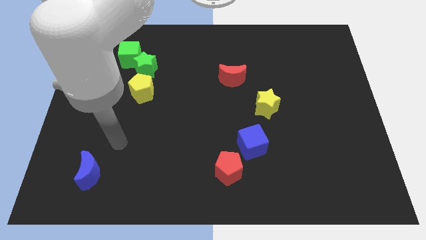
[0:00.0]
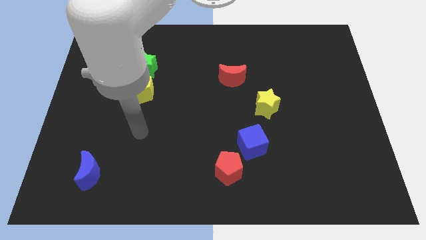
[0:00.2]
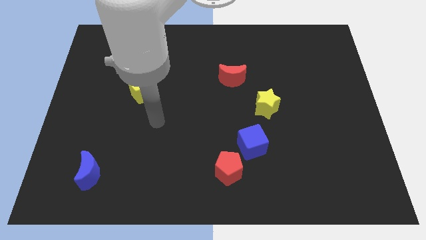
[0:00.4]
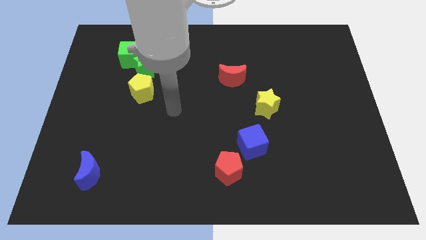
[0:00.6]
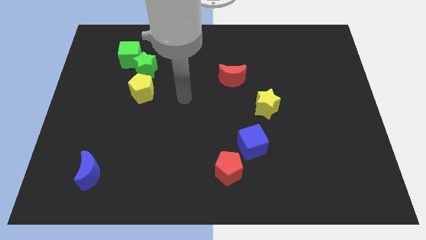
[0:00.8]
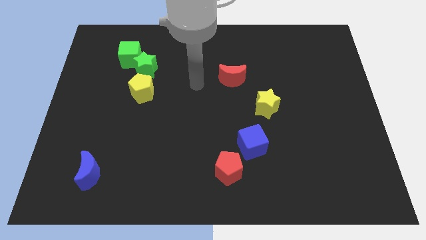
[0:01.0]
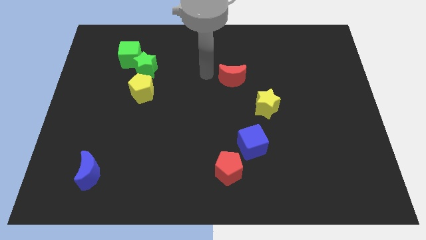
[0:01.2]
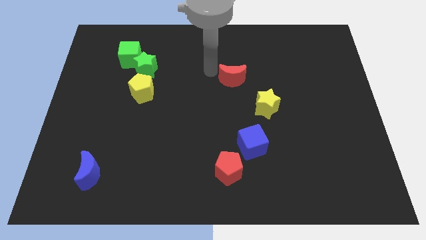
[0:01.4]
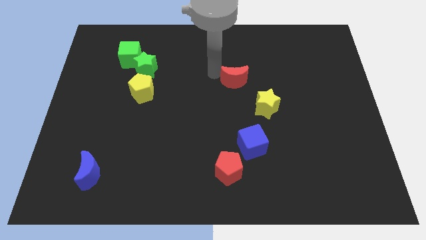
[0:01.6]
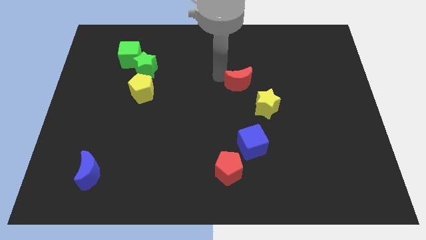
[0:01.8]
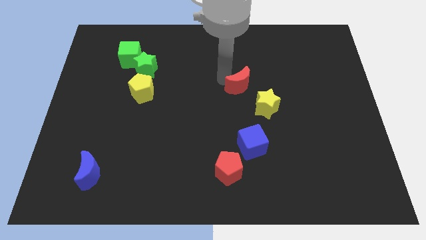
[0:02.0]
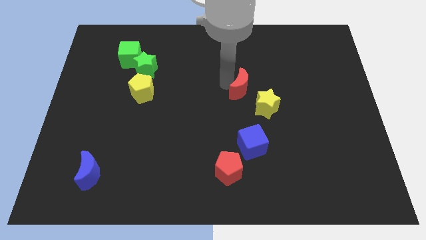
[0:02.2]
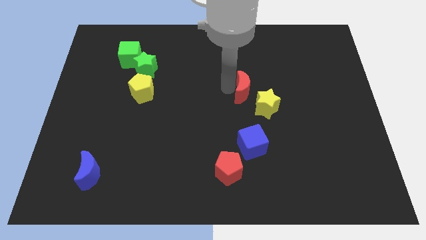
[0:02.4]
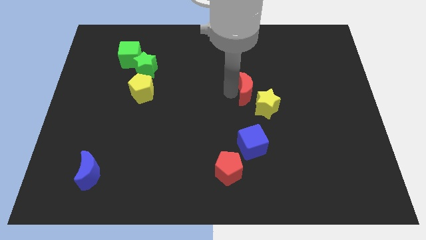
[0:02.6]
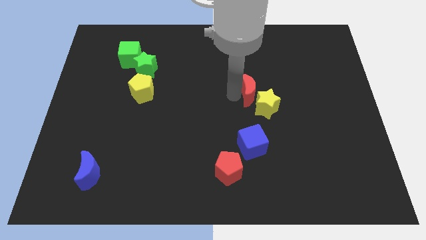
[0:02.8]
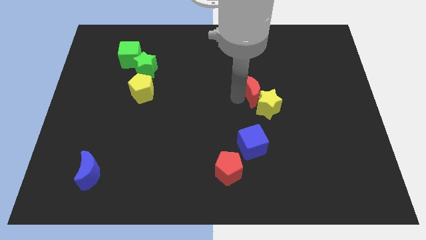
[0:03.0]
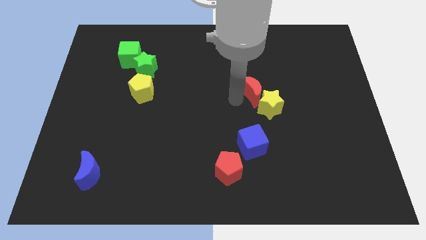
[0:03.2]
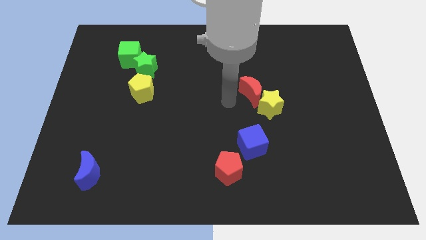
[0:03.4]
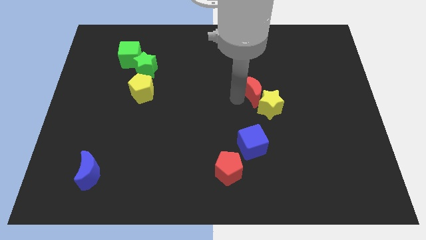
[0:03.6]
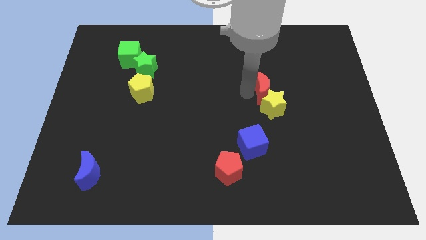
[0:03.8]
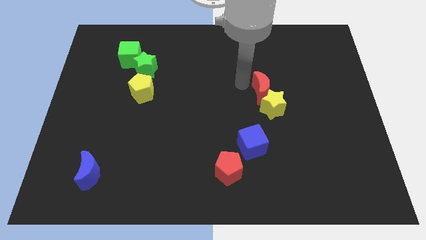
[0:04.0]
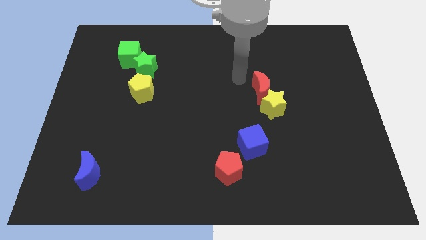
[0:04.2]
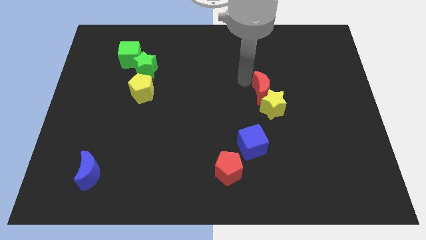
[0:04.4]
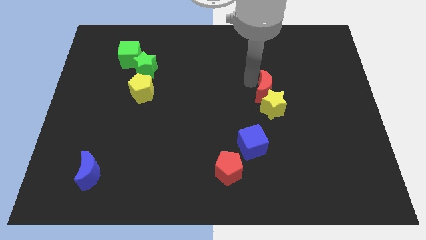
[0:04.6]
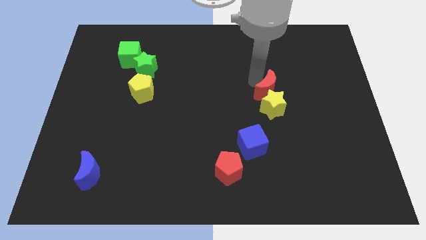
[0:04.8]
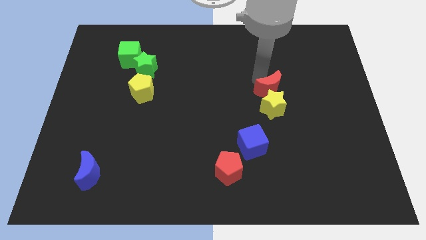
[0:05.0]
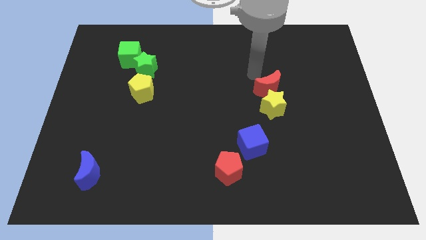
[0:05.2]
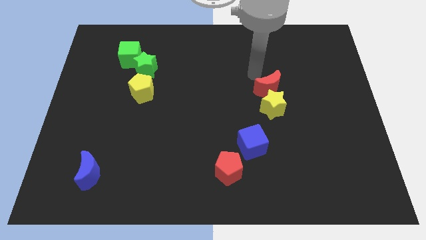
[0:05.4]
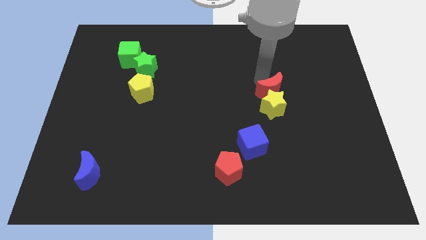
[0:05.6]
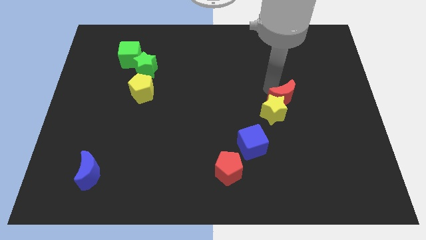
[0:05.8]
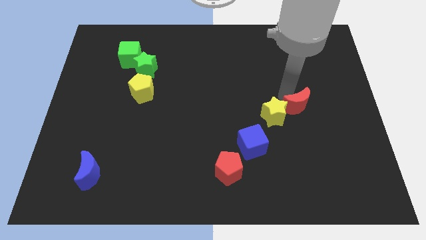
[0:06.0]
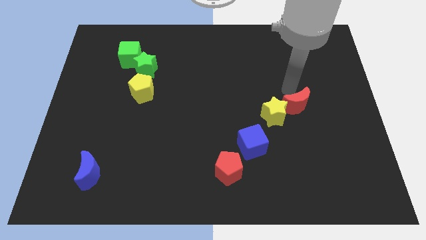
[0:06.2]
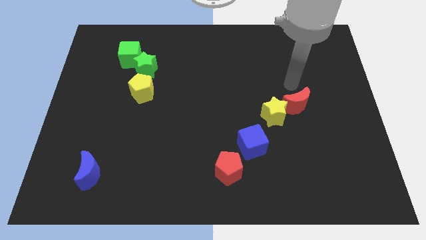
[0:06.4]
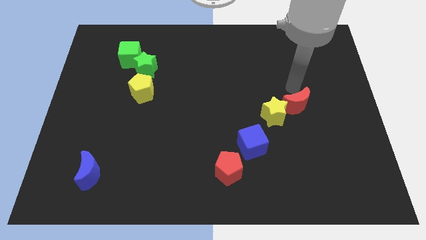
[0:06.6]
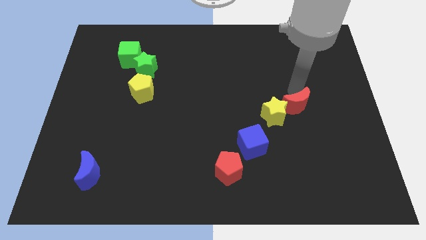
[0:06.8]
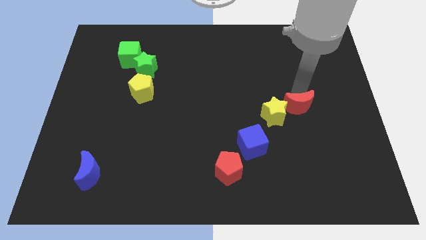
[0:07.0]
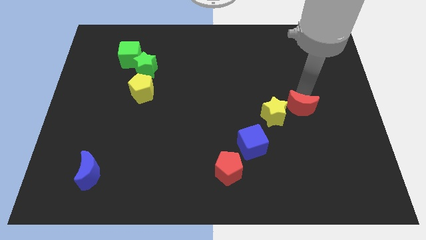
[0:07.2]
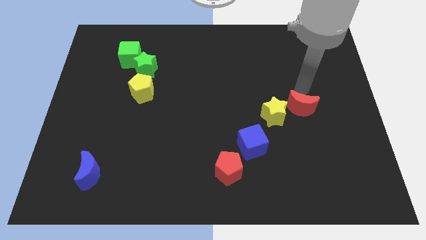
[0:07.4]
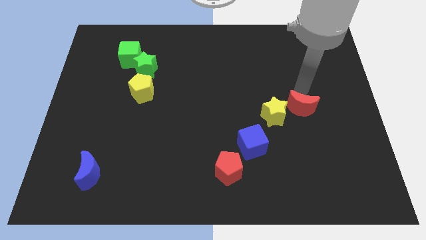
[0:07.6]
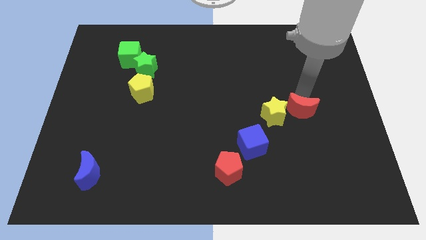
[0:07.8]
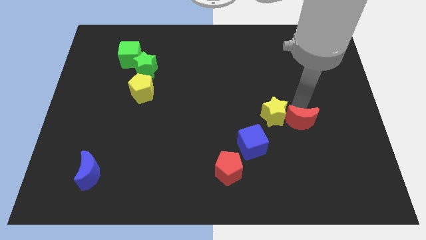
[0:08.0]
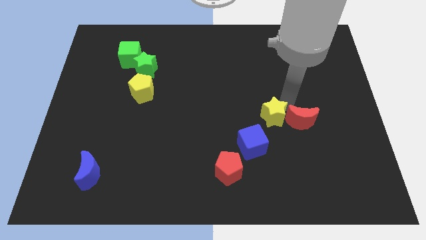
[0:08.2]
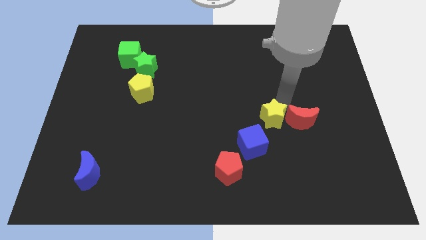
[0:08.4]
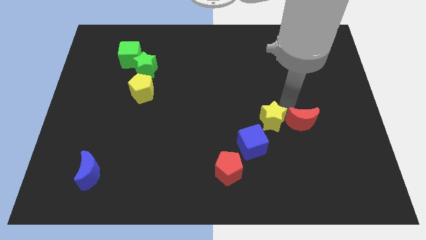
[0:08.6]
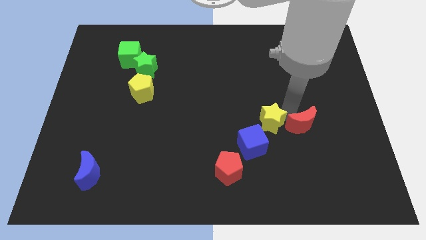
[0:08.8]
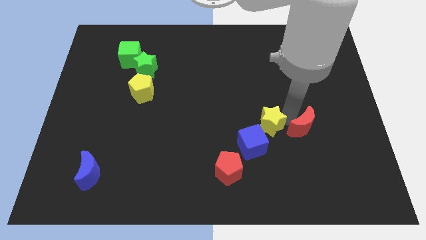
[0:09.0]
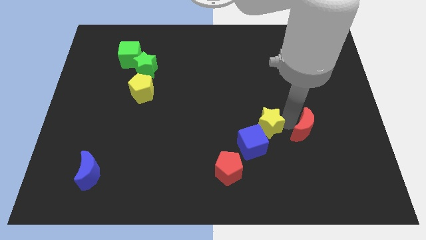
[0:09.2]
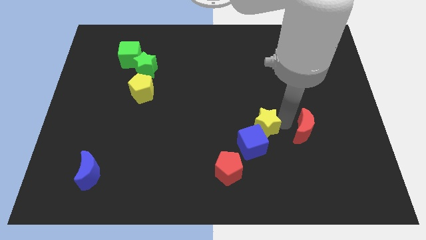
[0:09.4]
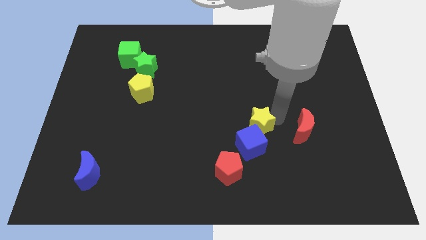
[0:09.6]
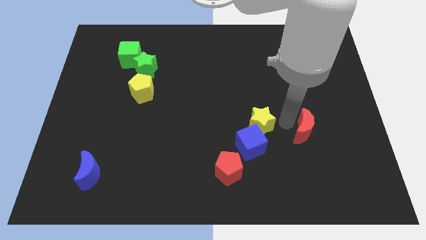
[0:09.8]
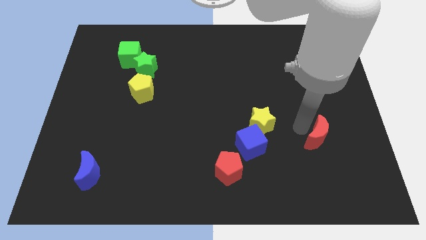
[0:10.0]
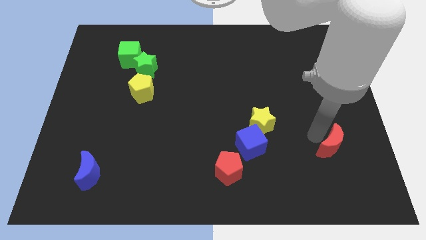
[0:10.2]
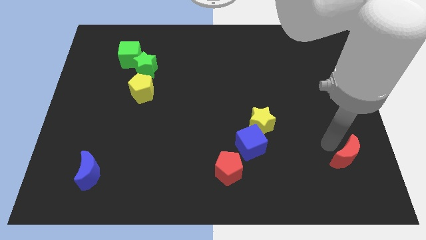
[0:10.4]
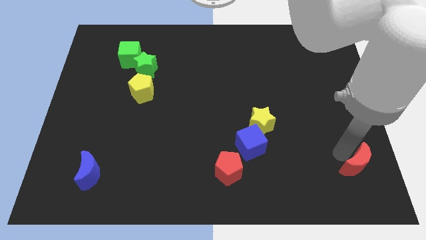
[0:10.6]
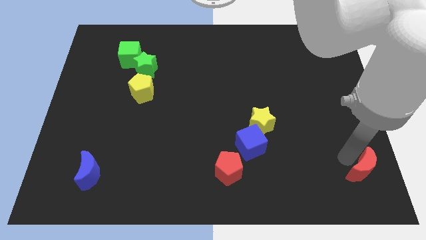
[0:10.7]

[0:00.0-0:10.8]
put the red moon to the lower right corner

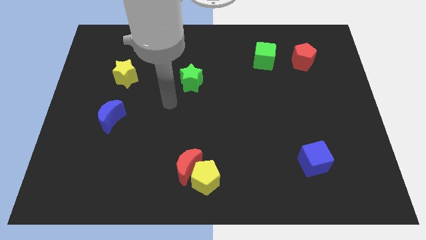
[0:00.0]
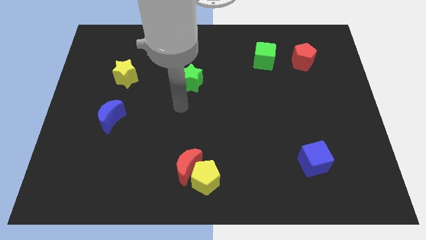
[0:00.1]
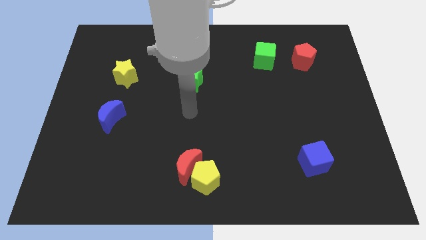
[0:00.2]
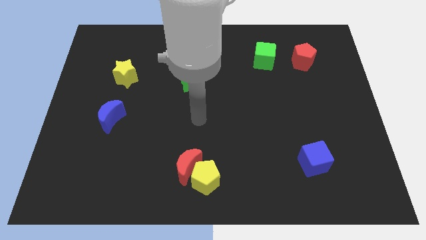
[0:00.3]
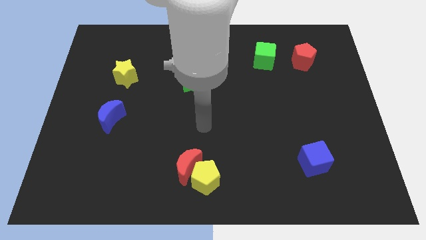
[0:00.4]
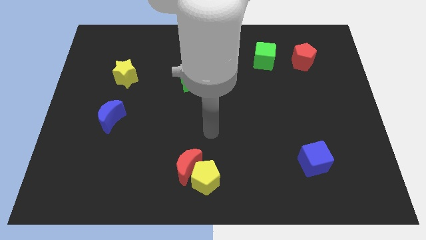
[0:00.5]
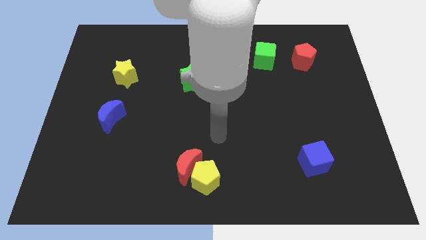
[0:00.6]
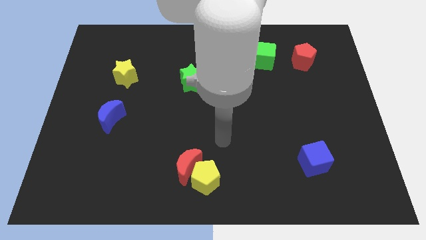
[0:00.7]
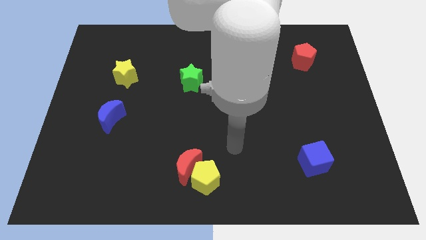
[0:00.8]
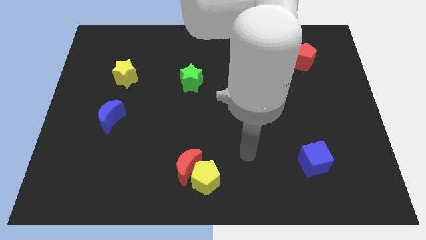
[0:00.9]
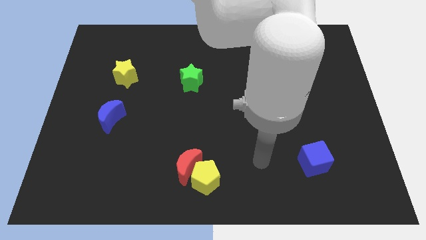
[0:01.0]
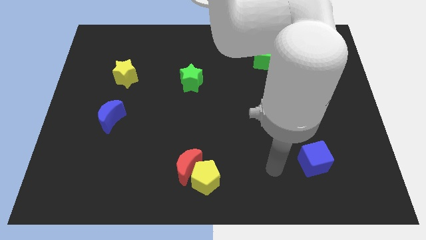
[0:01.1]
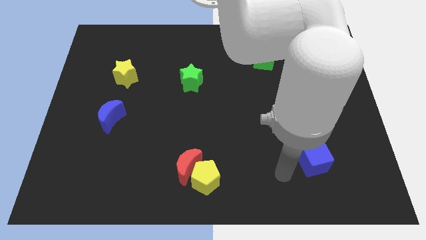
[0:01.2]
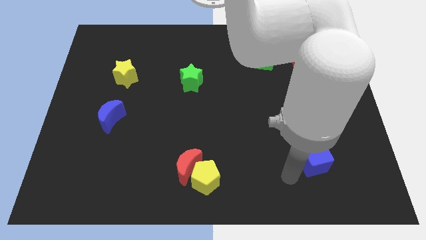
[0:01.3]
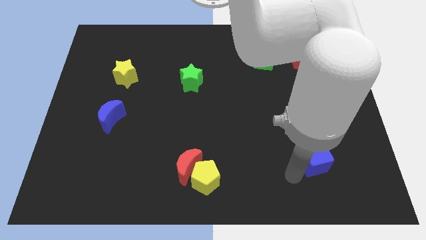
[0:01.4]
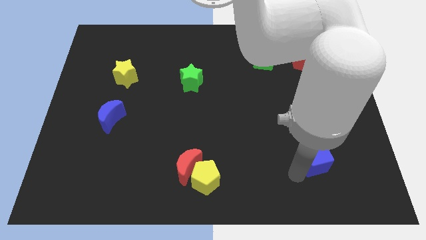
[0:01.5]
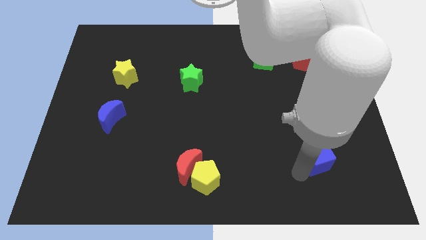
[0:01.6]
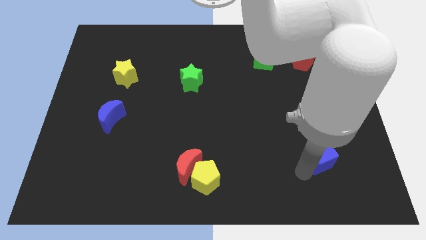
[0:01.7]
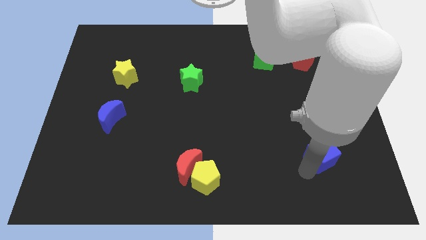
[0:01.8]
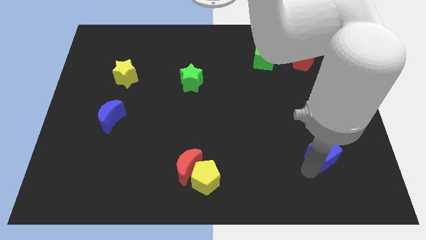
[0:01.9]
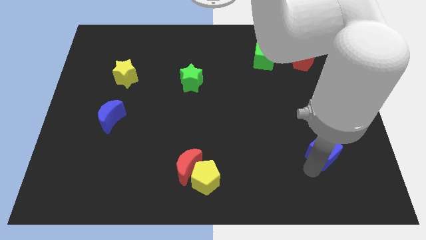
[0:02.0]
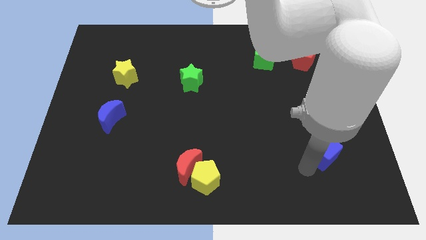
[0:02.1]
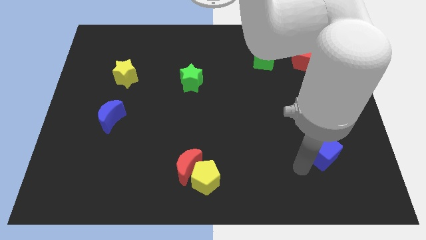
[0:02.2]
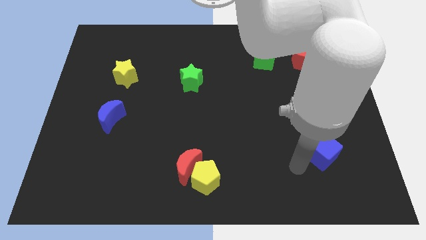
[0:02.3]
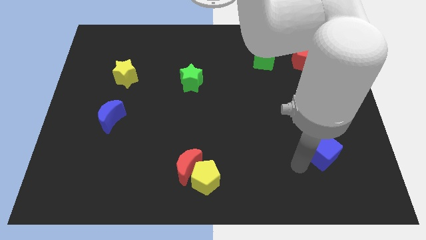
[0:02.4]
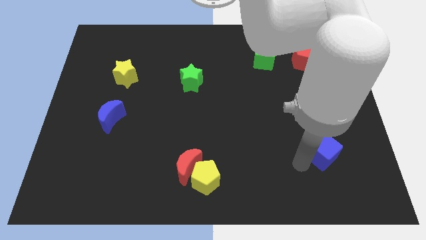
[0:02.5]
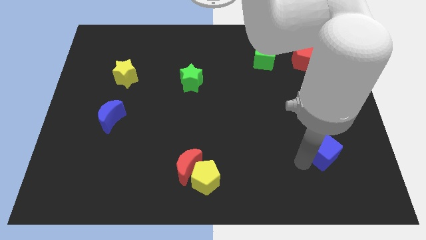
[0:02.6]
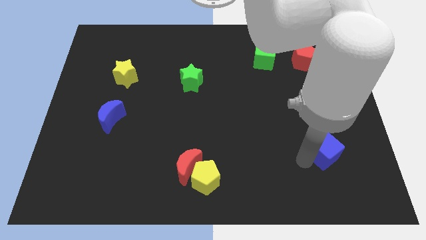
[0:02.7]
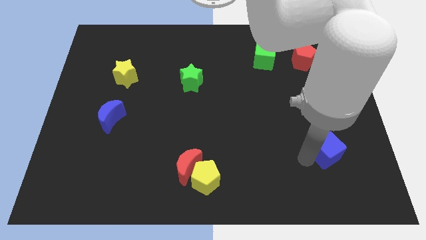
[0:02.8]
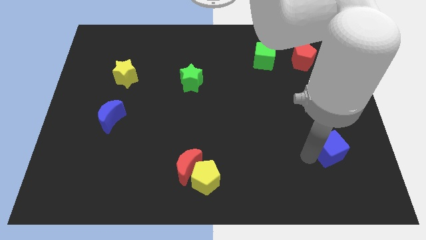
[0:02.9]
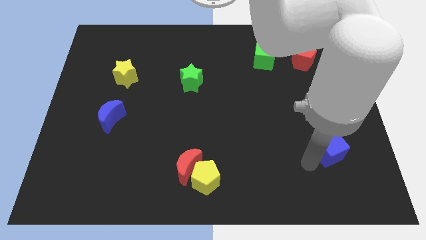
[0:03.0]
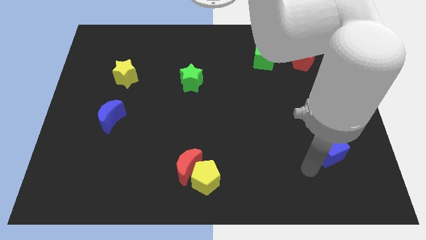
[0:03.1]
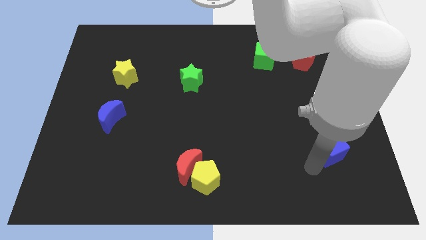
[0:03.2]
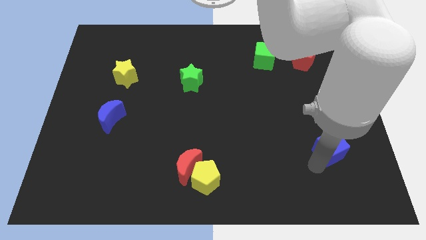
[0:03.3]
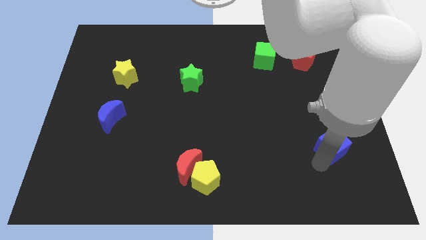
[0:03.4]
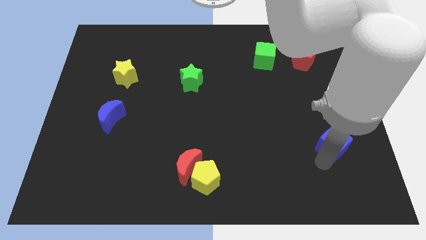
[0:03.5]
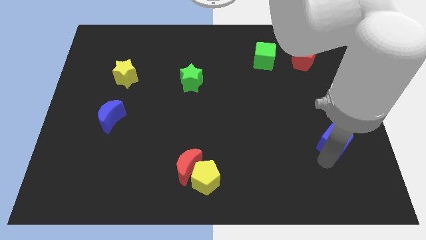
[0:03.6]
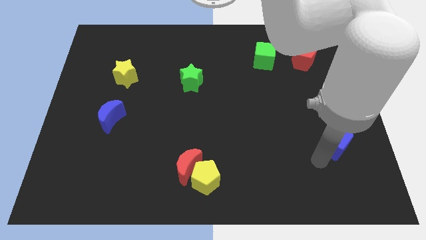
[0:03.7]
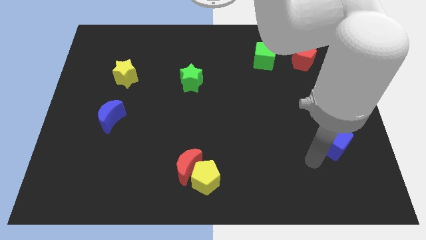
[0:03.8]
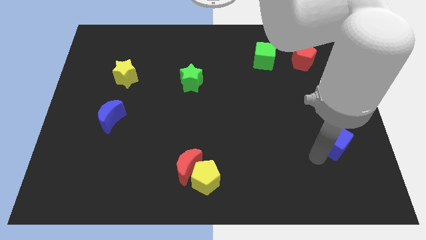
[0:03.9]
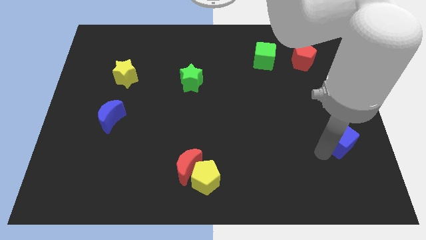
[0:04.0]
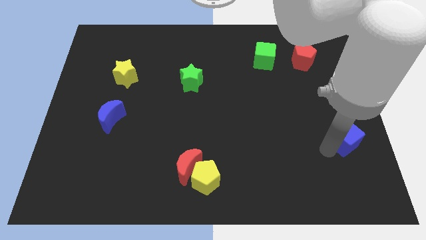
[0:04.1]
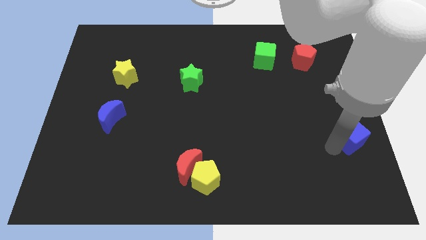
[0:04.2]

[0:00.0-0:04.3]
push the blue cube to the center right
